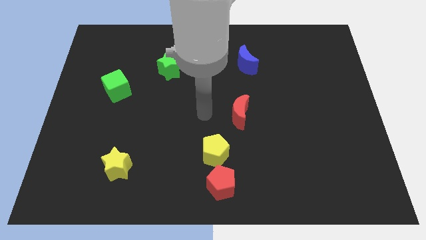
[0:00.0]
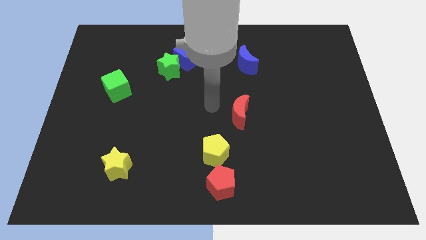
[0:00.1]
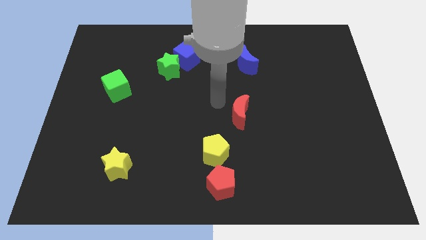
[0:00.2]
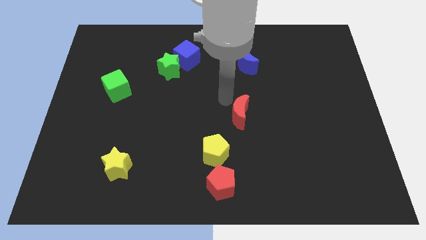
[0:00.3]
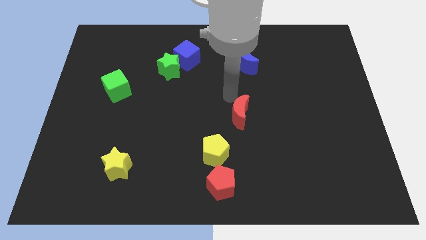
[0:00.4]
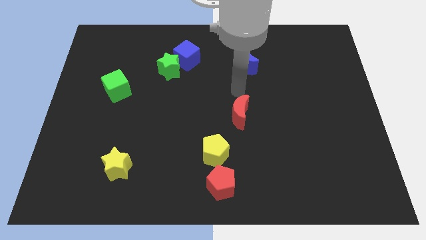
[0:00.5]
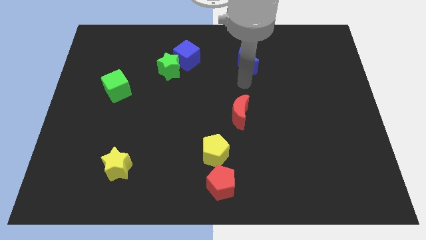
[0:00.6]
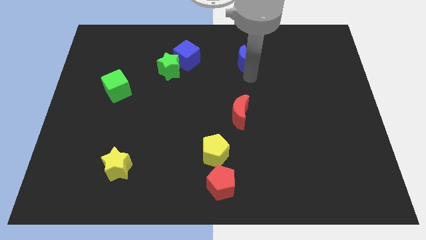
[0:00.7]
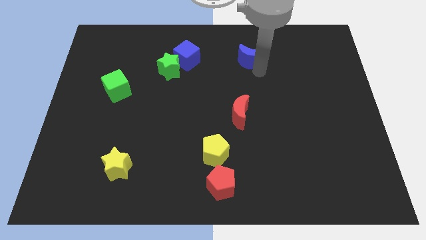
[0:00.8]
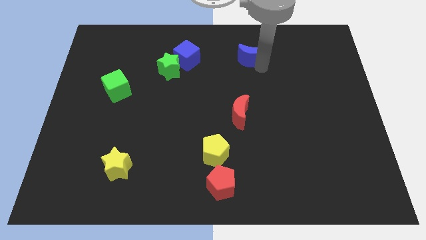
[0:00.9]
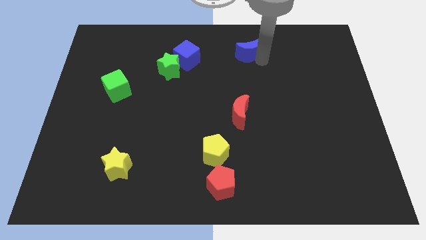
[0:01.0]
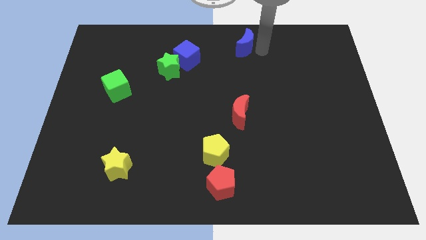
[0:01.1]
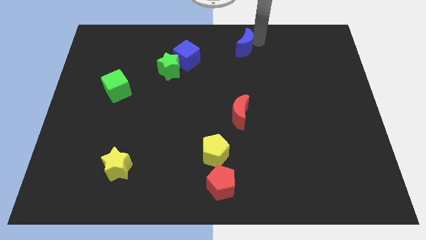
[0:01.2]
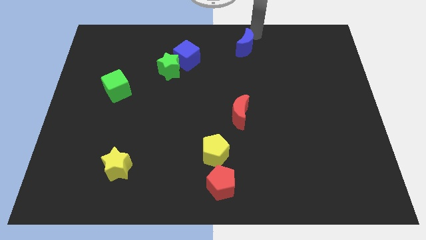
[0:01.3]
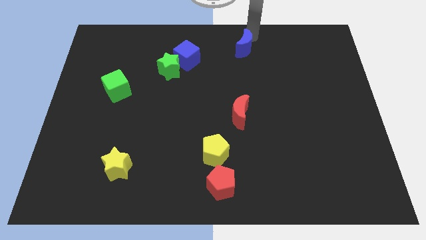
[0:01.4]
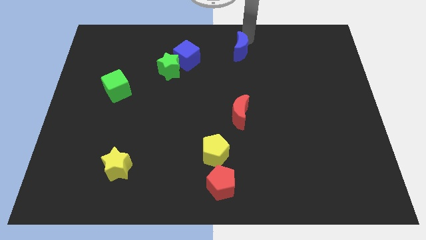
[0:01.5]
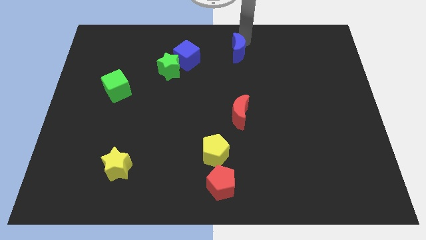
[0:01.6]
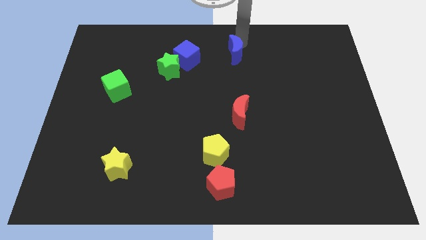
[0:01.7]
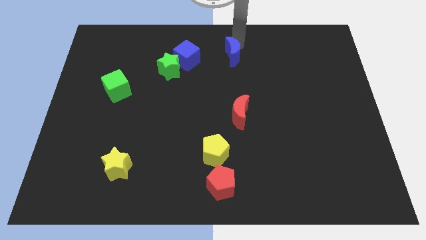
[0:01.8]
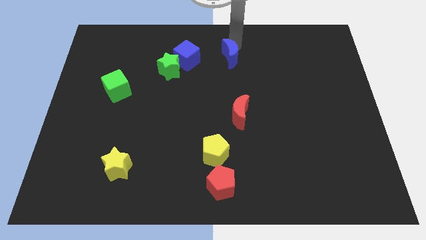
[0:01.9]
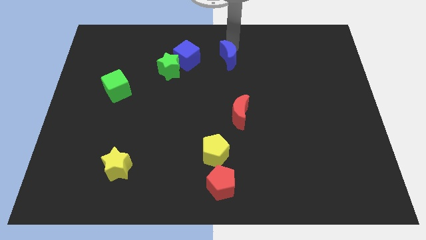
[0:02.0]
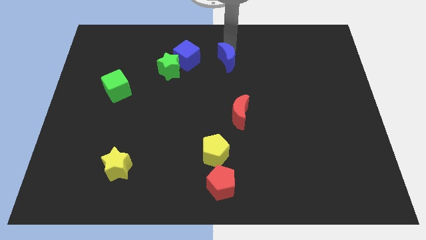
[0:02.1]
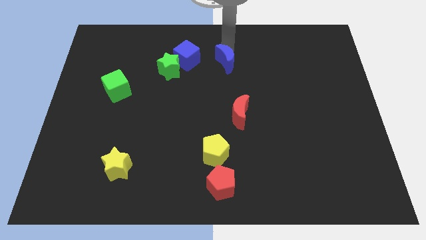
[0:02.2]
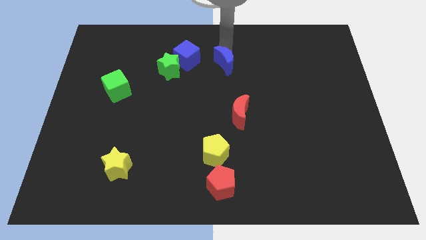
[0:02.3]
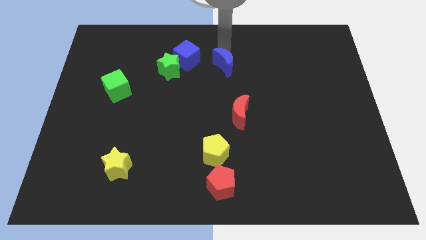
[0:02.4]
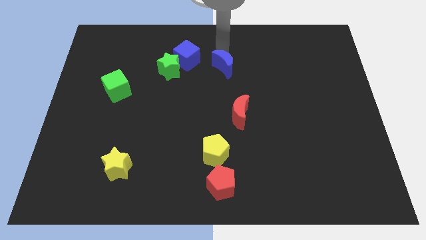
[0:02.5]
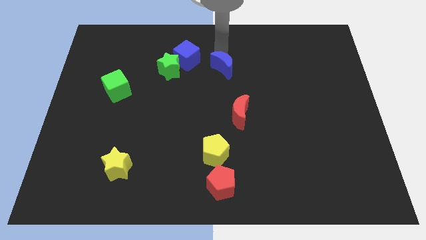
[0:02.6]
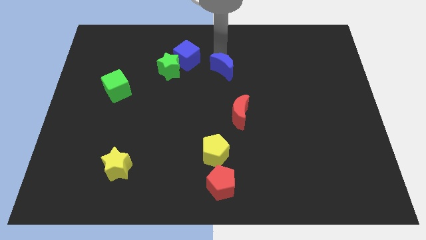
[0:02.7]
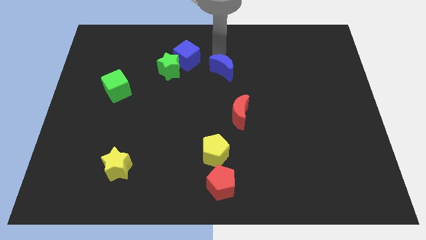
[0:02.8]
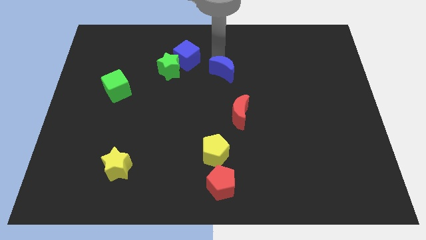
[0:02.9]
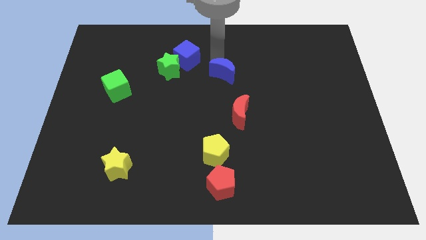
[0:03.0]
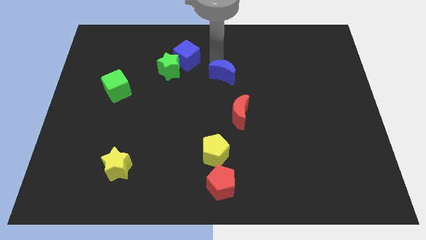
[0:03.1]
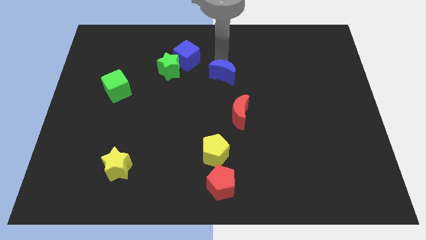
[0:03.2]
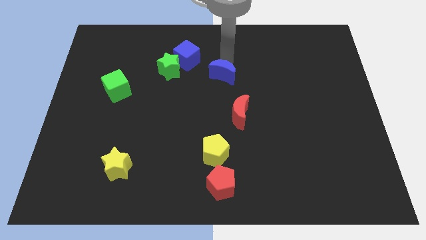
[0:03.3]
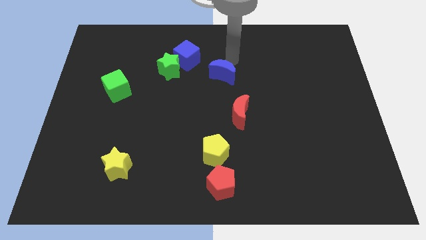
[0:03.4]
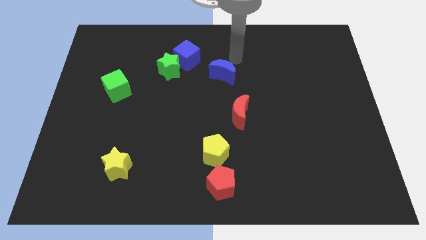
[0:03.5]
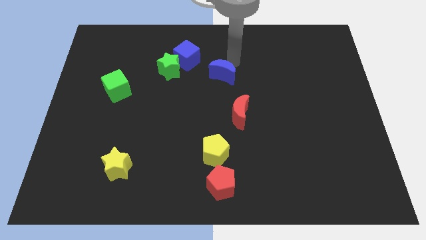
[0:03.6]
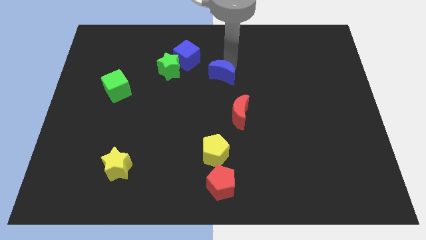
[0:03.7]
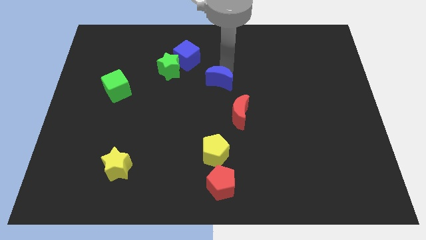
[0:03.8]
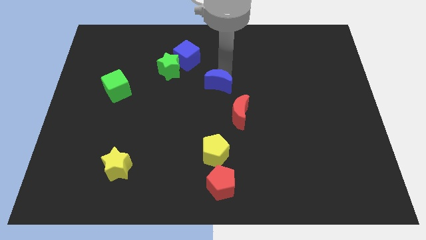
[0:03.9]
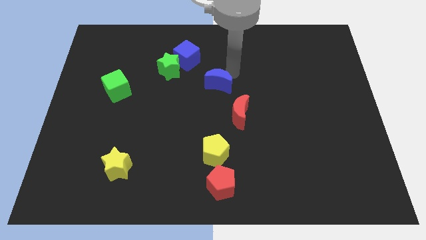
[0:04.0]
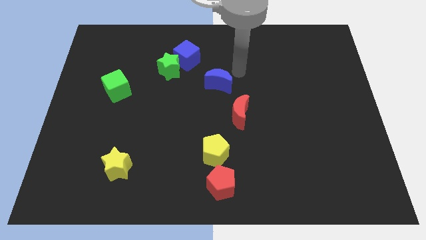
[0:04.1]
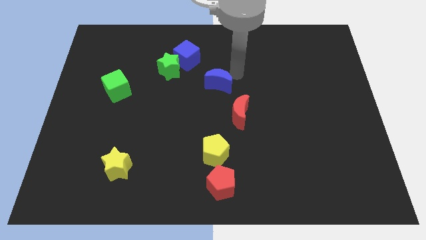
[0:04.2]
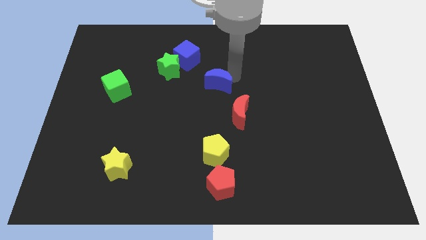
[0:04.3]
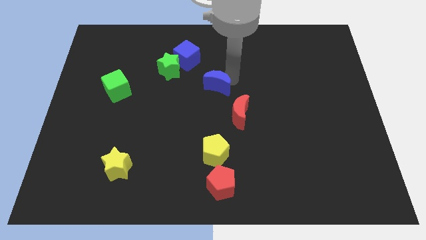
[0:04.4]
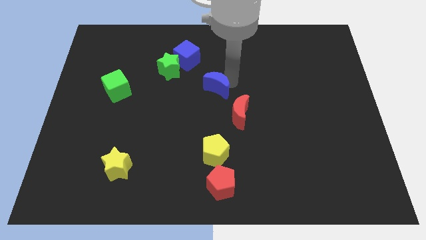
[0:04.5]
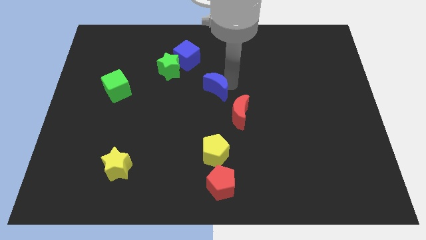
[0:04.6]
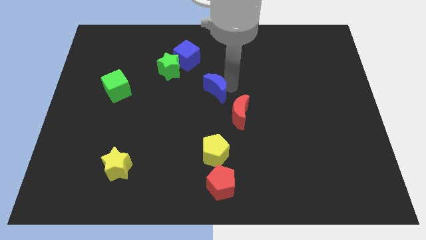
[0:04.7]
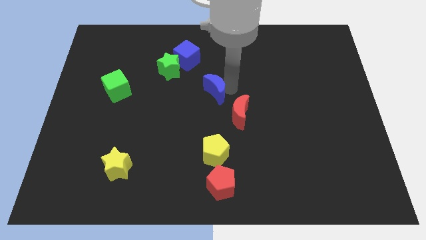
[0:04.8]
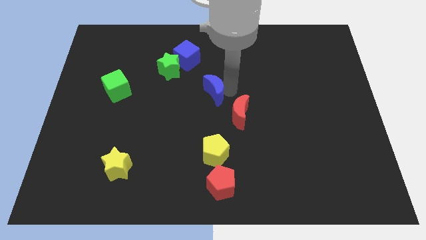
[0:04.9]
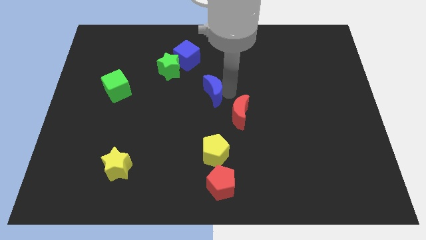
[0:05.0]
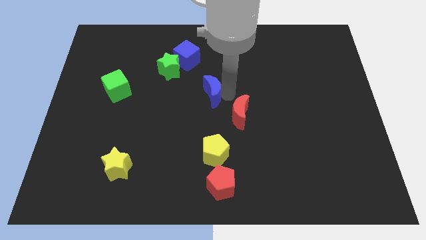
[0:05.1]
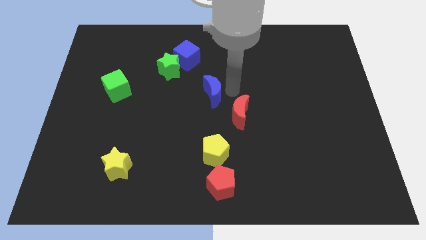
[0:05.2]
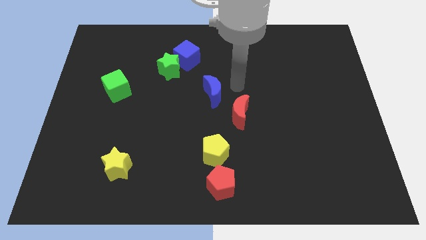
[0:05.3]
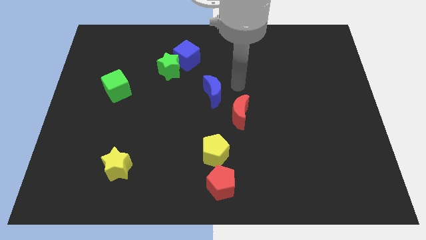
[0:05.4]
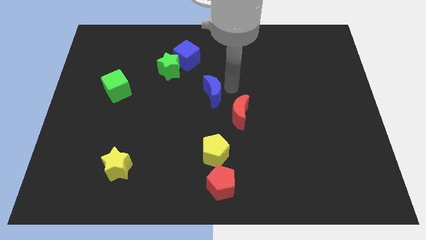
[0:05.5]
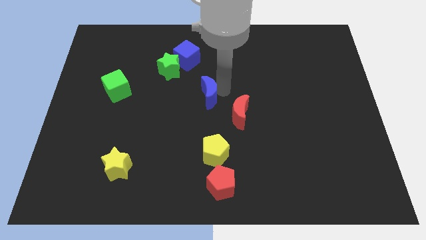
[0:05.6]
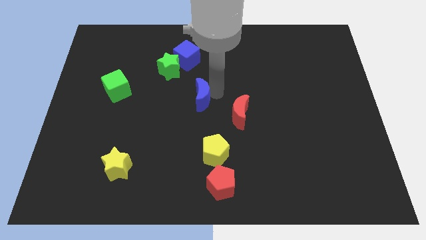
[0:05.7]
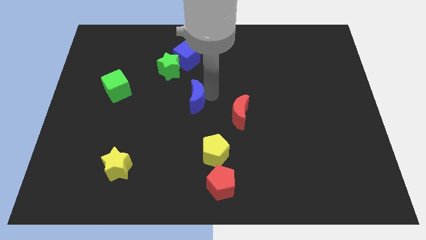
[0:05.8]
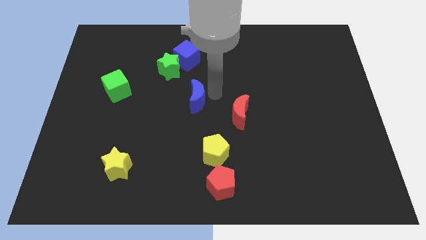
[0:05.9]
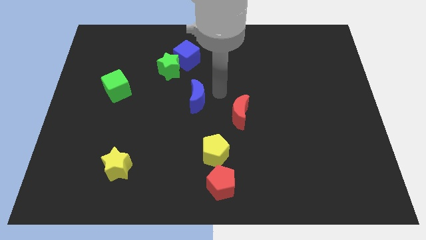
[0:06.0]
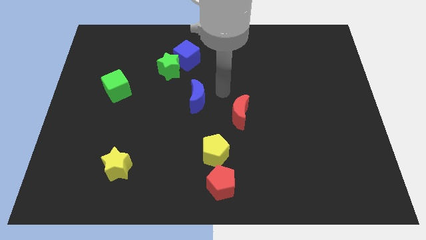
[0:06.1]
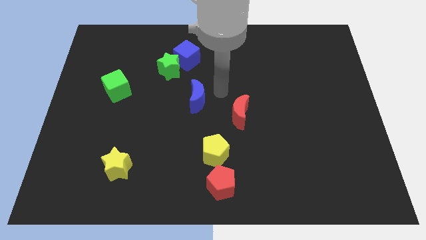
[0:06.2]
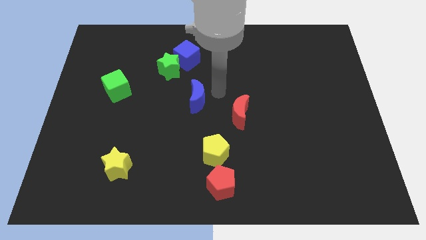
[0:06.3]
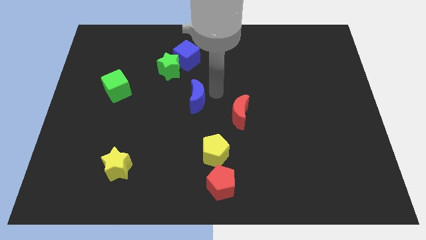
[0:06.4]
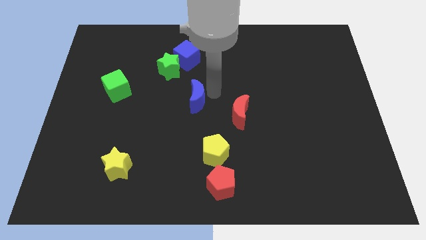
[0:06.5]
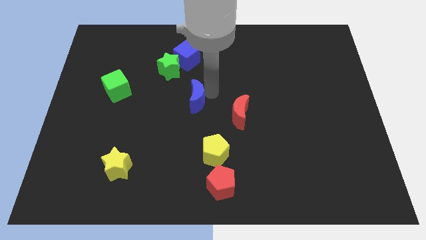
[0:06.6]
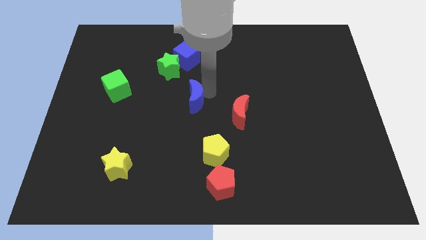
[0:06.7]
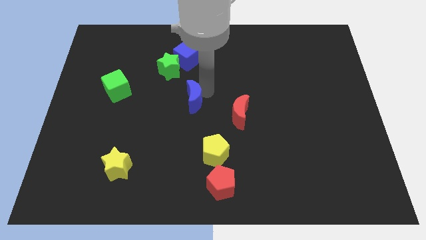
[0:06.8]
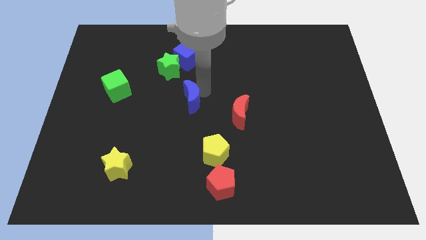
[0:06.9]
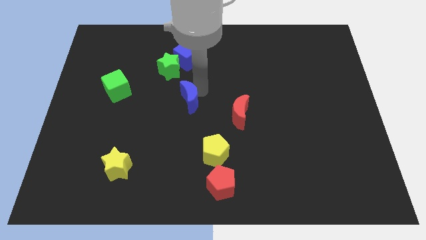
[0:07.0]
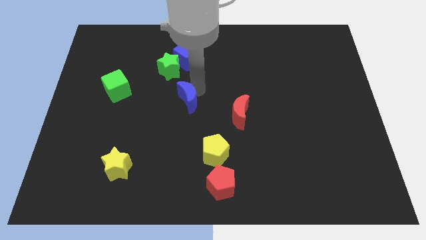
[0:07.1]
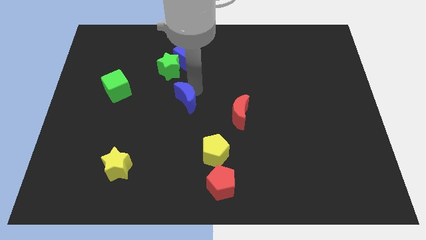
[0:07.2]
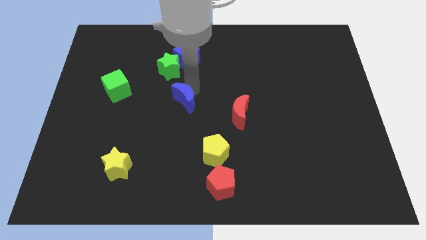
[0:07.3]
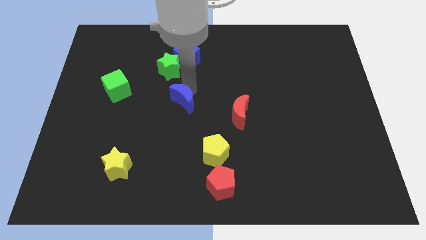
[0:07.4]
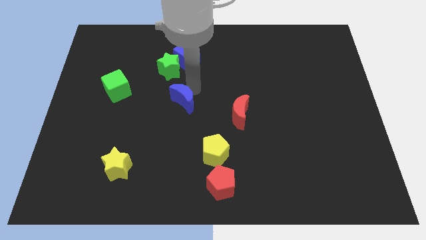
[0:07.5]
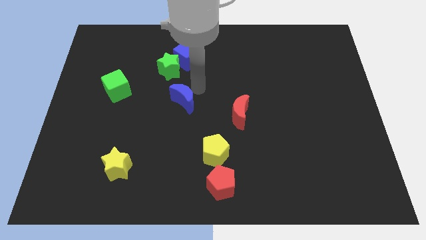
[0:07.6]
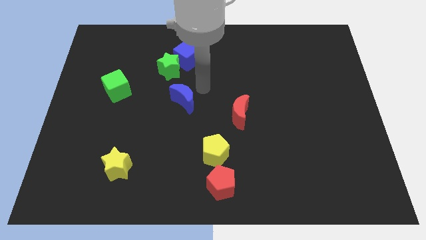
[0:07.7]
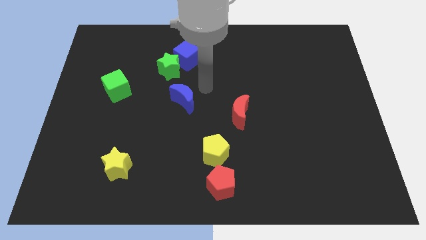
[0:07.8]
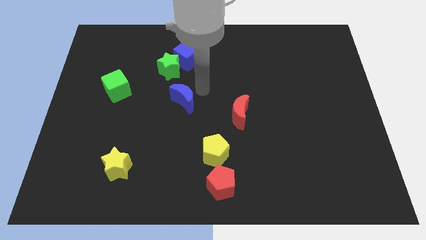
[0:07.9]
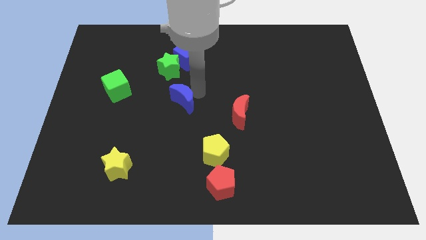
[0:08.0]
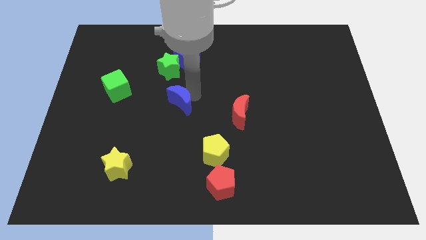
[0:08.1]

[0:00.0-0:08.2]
push the blue moon down and left diagonally
